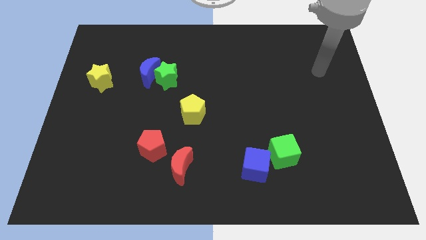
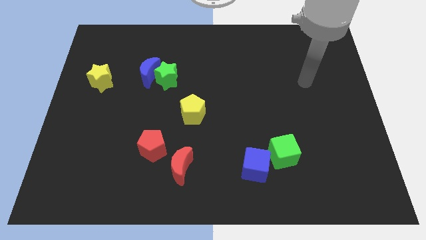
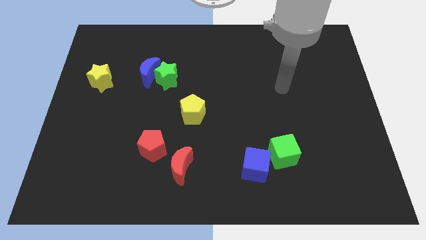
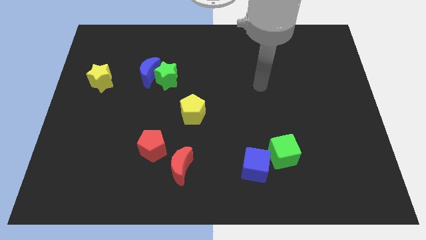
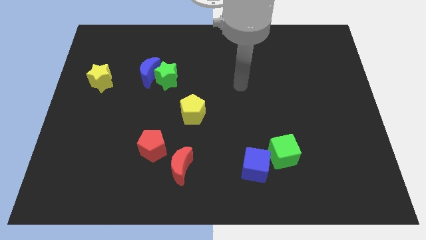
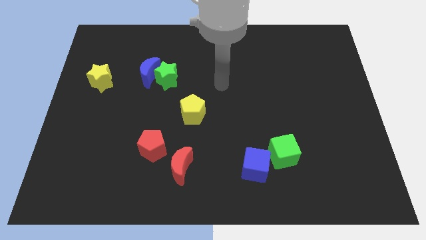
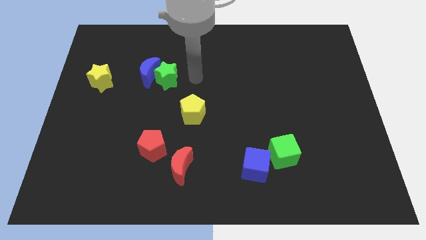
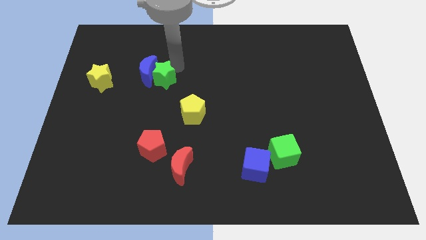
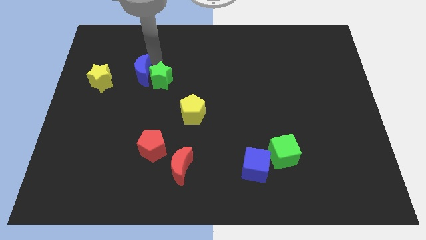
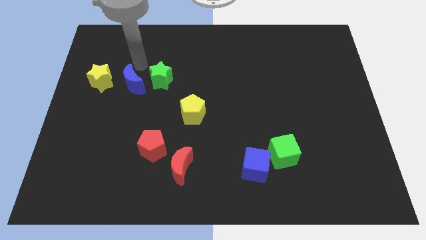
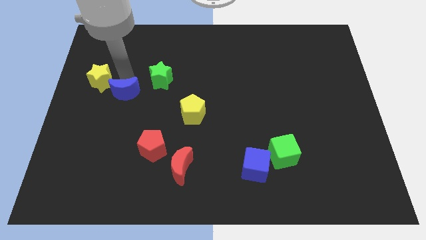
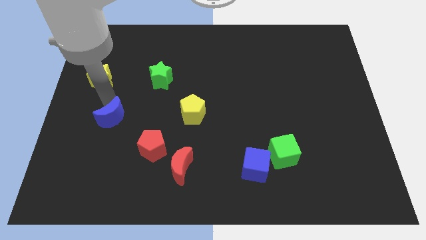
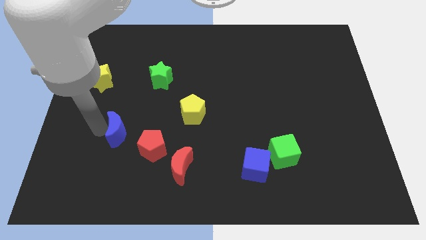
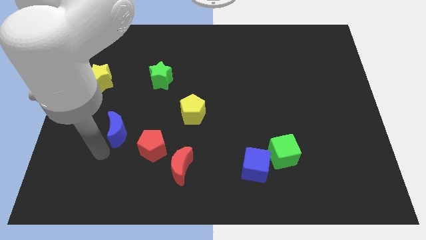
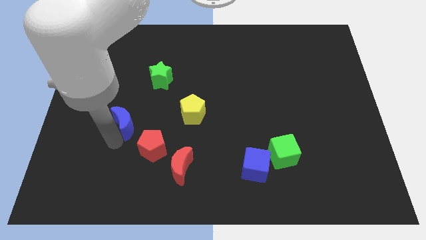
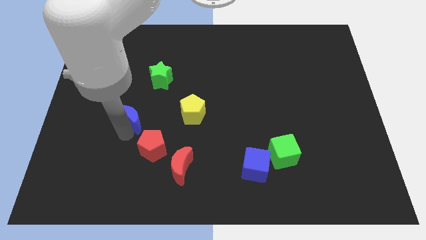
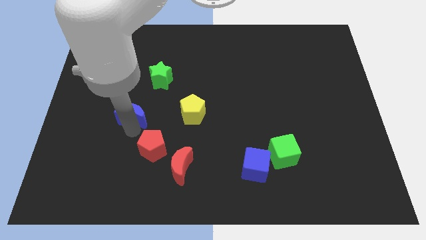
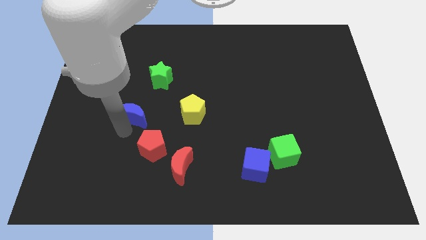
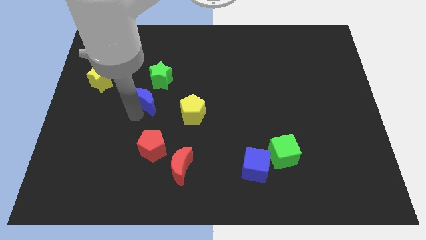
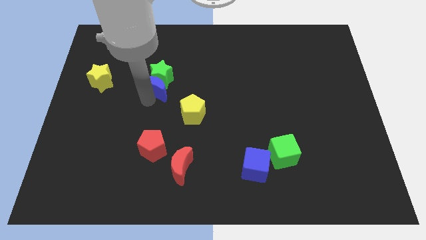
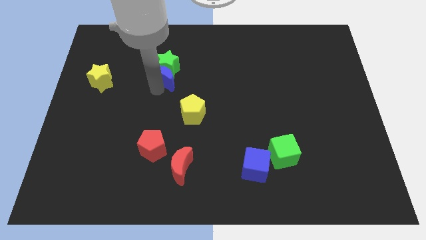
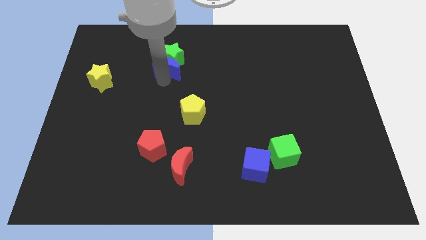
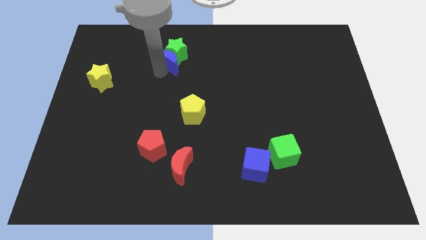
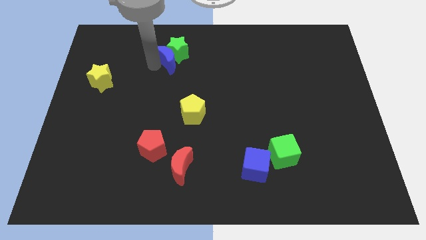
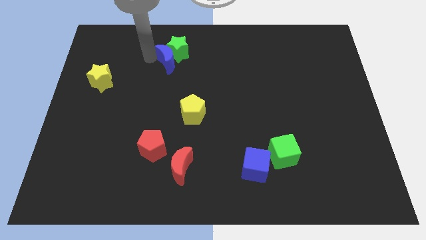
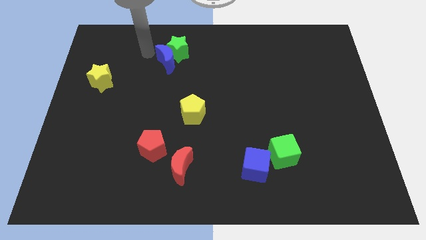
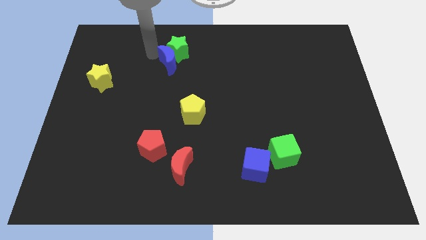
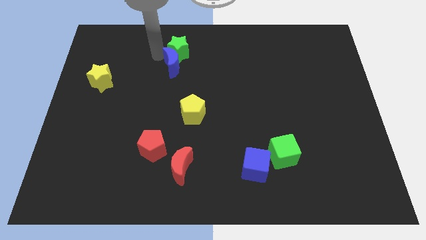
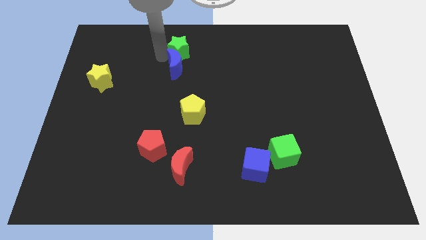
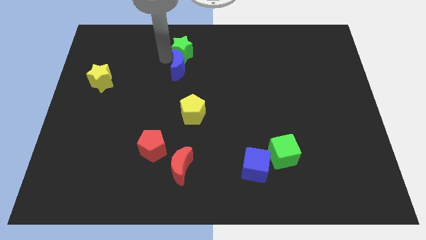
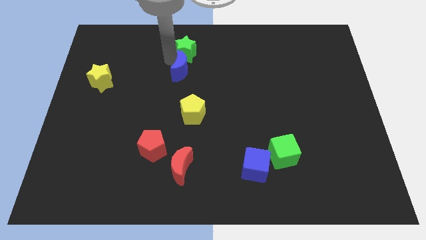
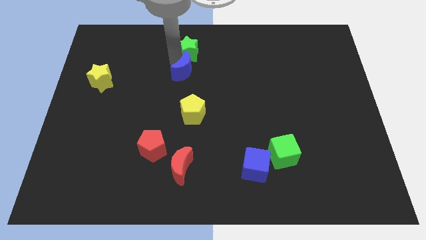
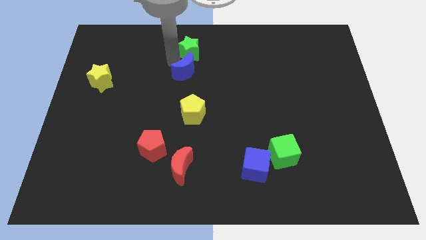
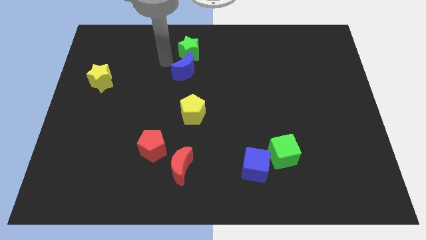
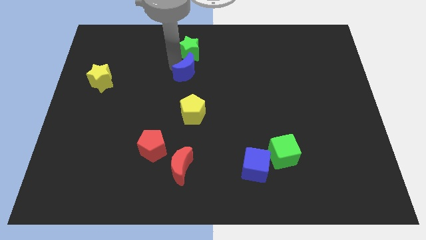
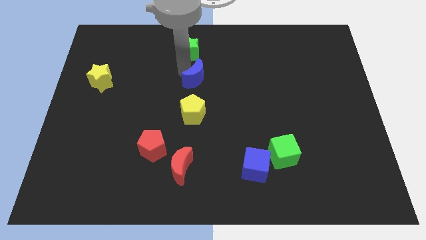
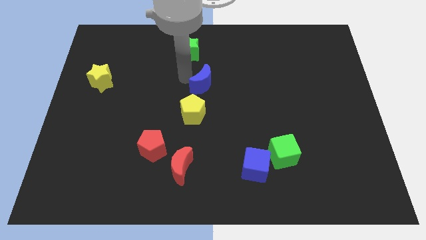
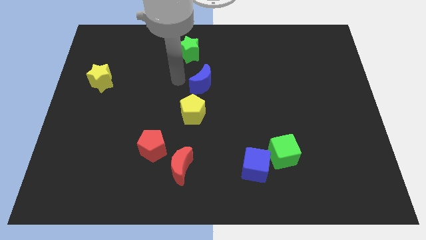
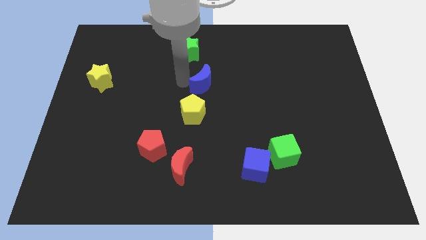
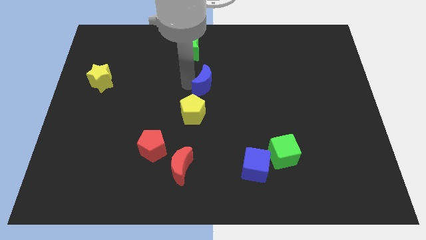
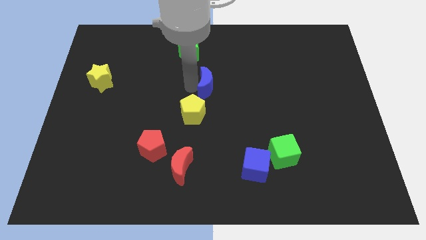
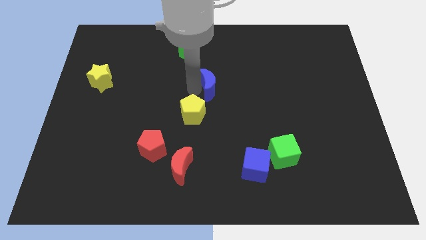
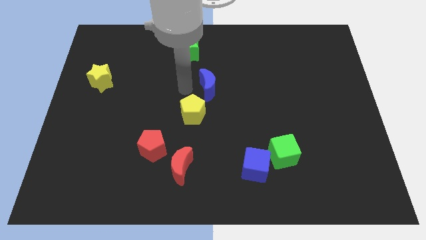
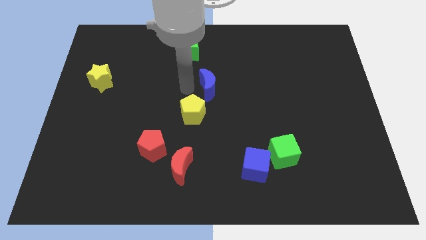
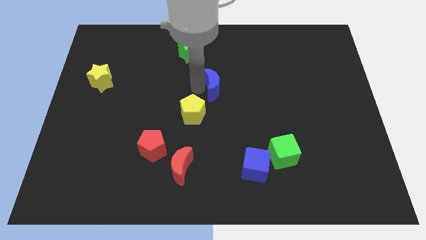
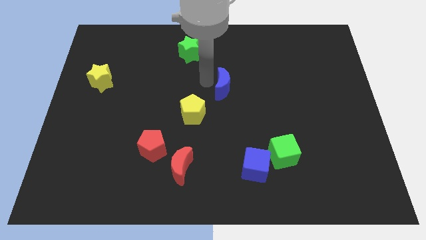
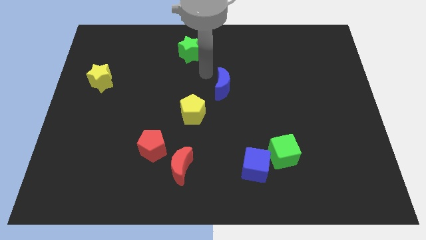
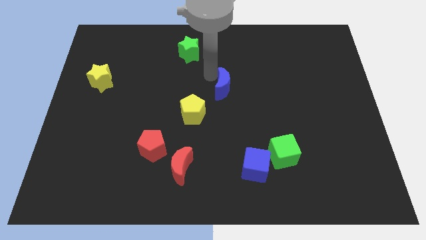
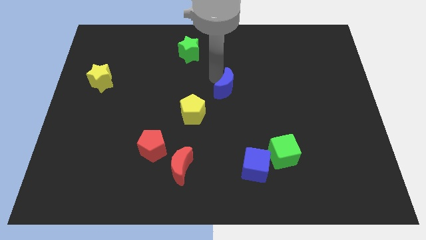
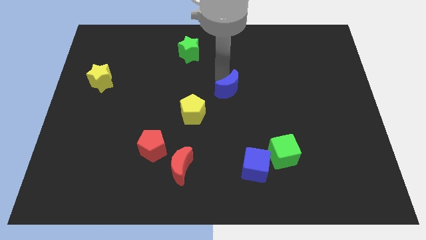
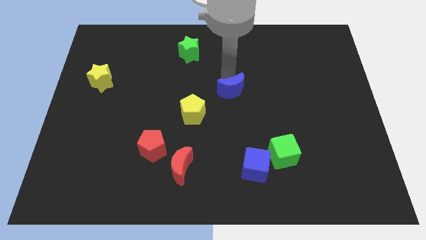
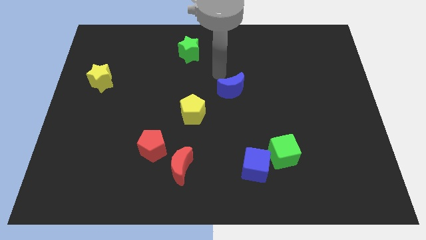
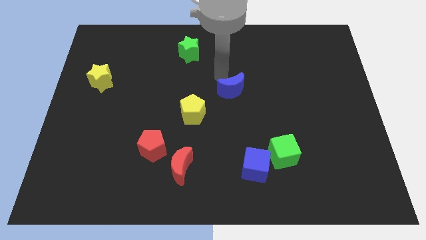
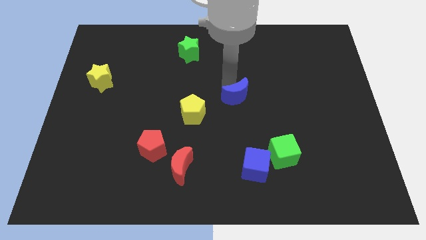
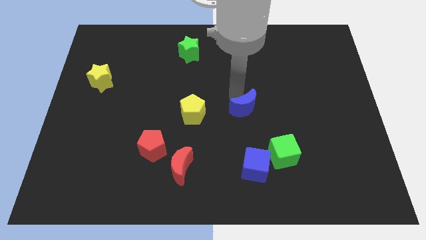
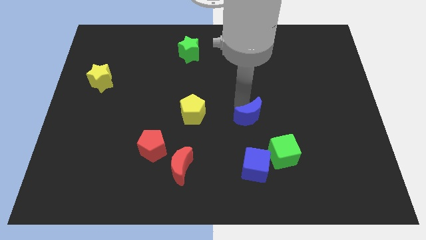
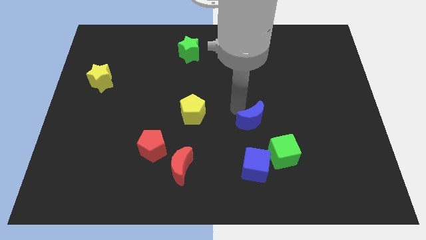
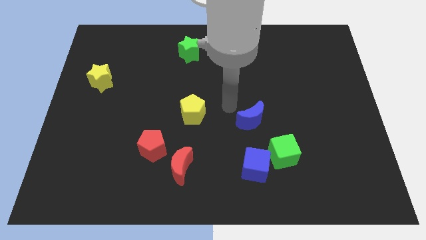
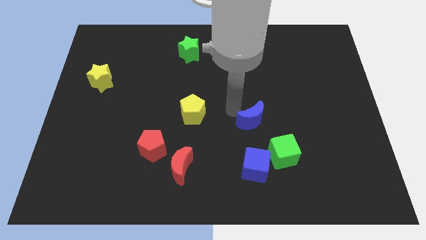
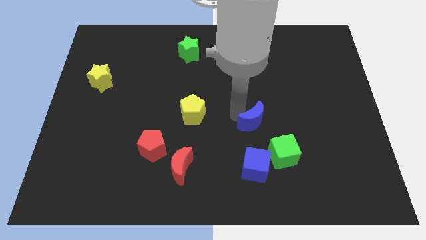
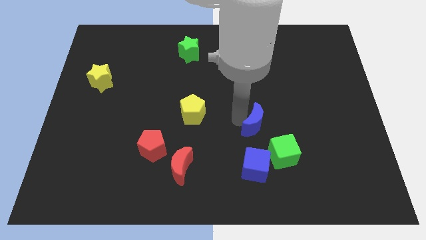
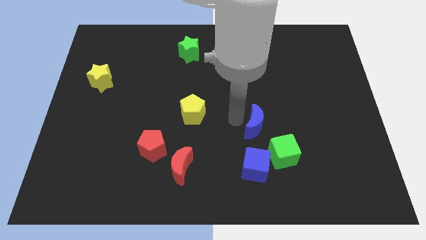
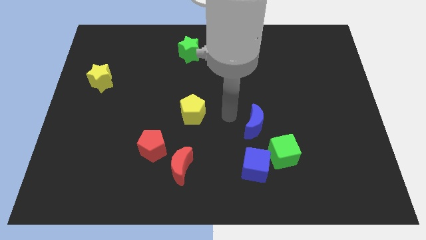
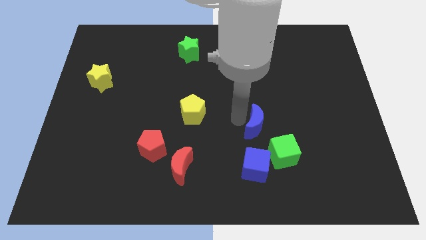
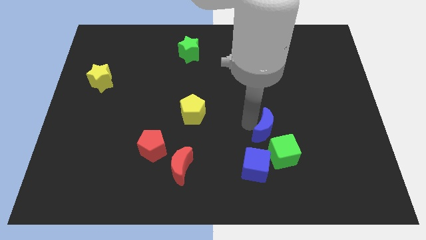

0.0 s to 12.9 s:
move the blue moon diagonally up and to the right of the blue cube

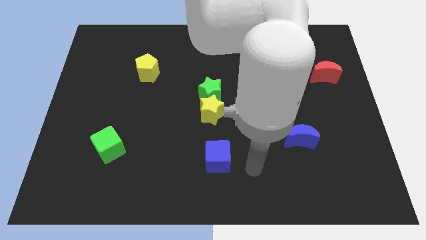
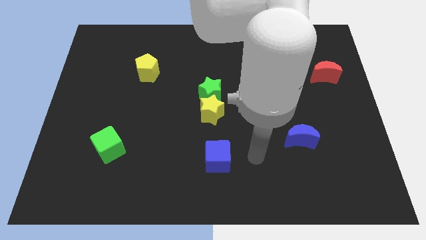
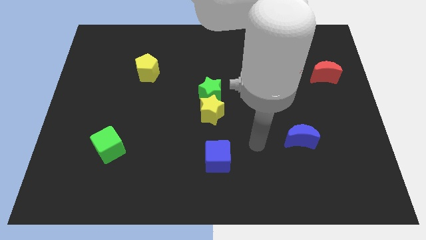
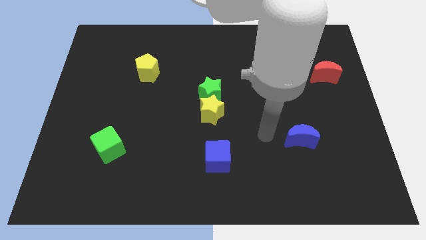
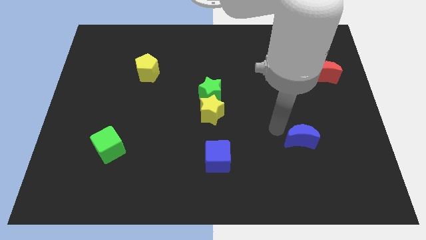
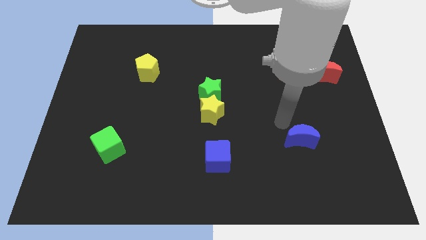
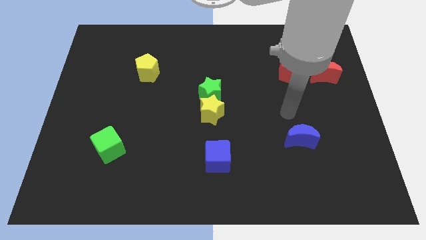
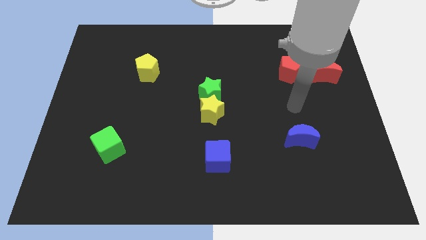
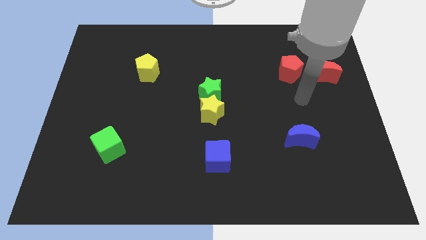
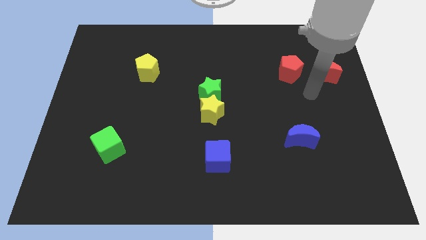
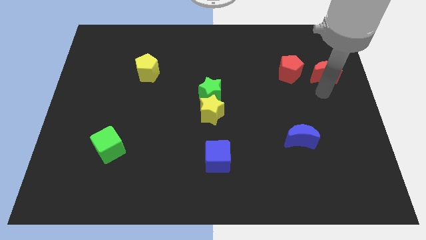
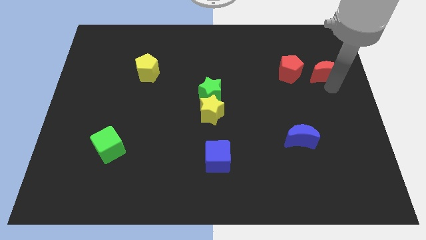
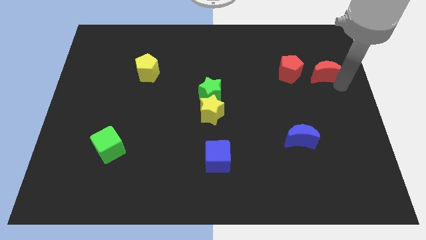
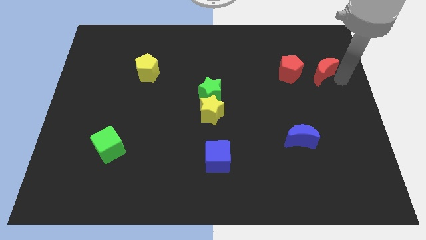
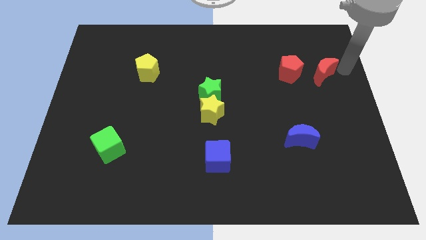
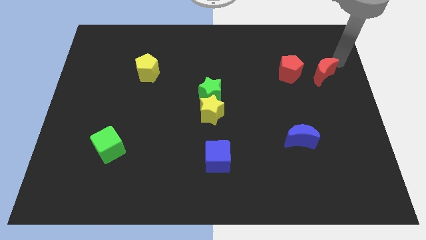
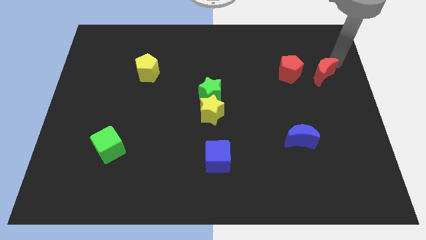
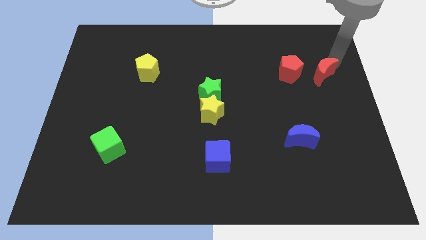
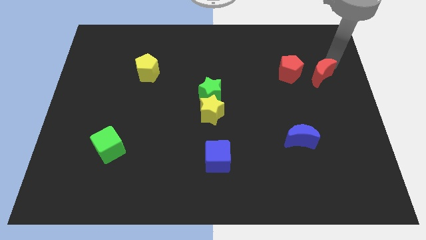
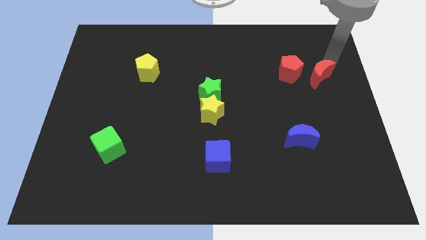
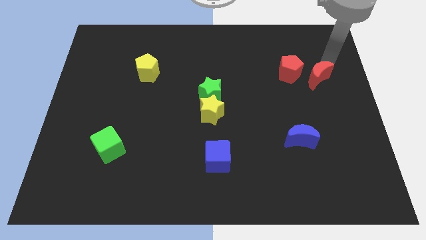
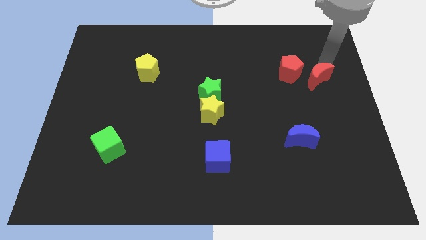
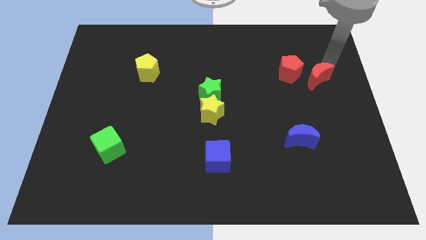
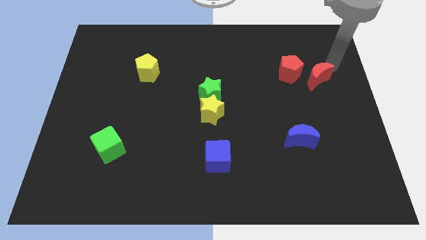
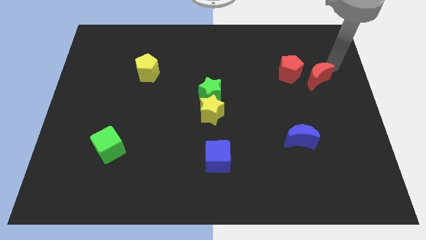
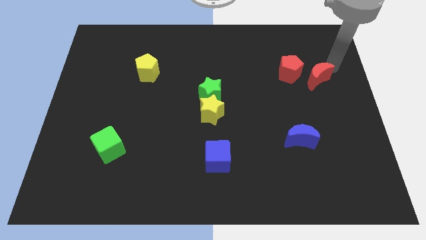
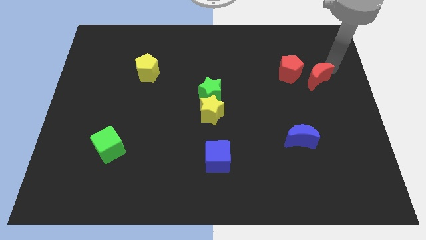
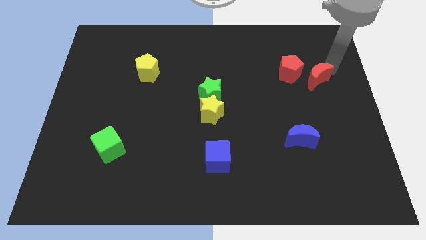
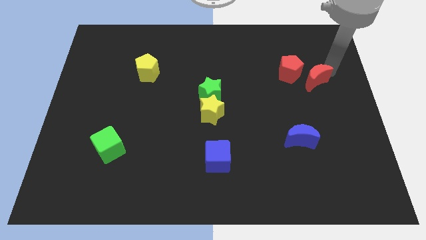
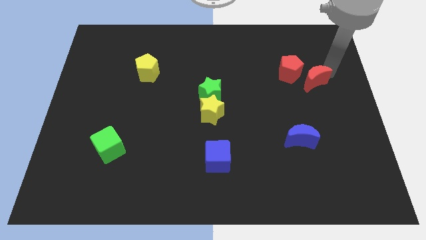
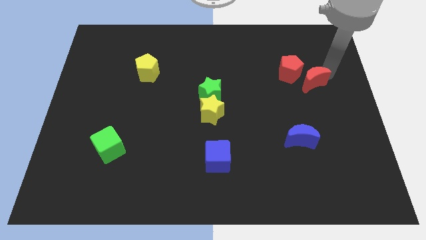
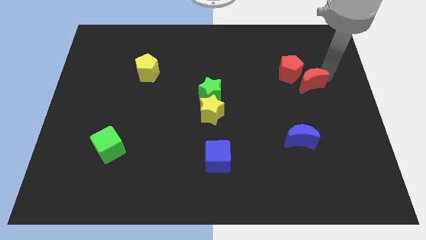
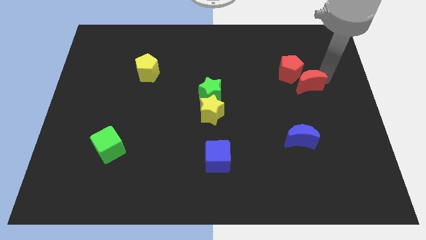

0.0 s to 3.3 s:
push the red moon to the bottom side of the red pentagon
